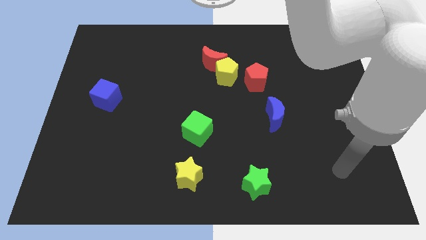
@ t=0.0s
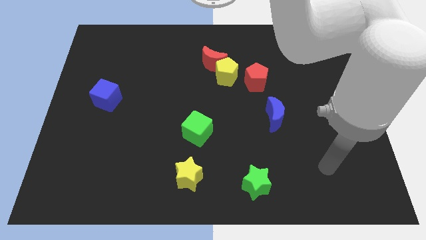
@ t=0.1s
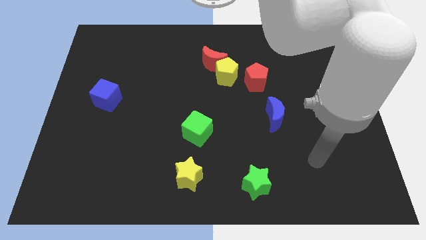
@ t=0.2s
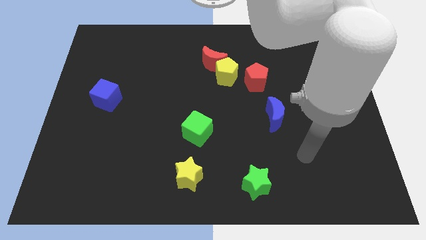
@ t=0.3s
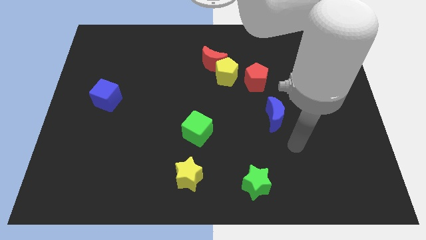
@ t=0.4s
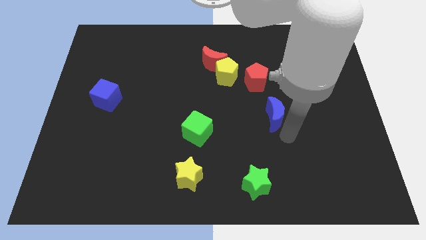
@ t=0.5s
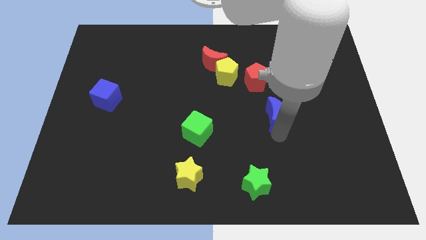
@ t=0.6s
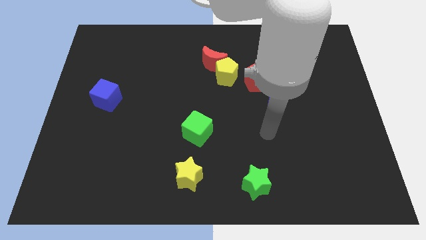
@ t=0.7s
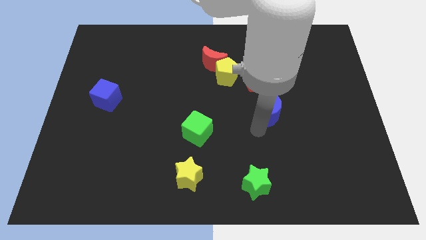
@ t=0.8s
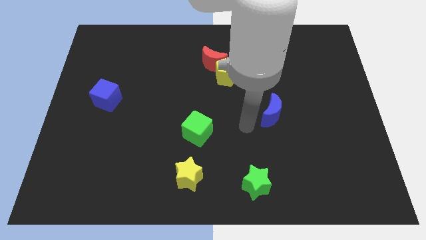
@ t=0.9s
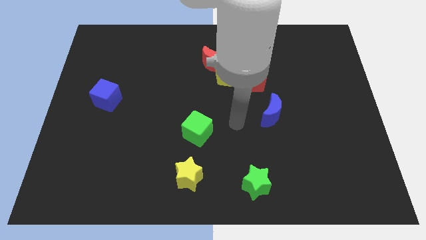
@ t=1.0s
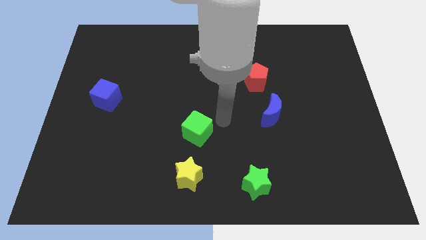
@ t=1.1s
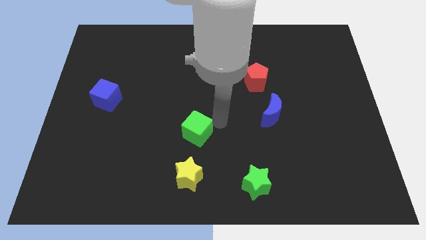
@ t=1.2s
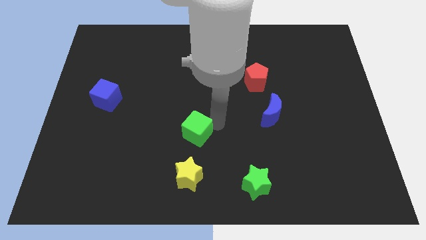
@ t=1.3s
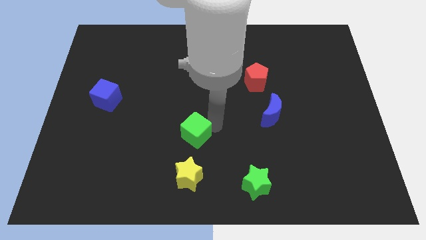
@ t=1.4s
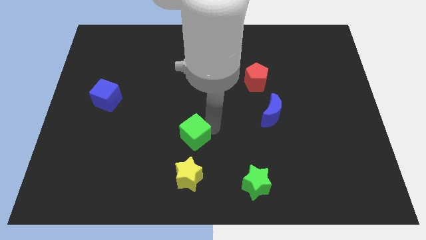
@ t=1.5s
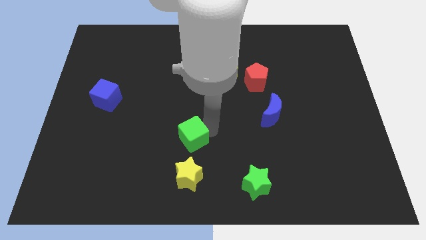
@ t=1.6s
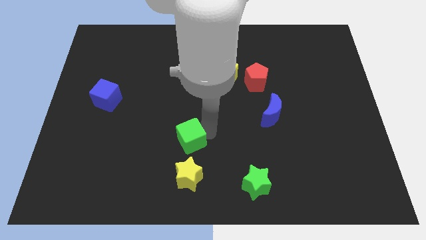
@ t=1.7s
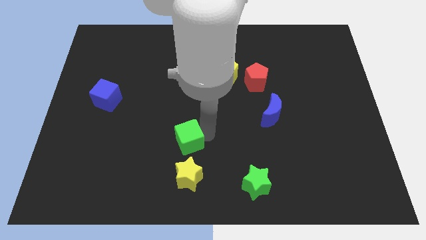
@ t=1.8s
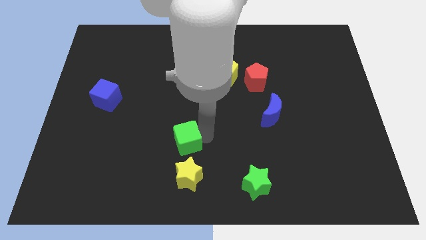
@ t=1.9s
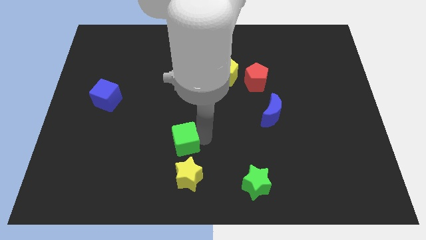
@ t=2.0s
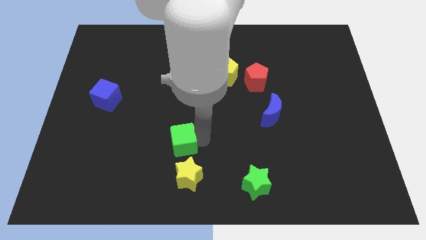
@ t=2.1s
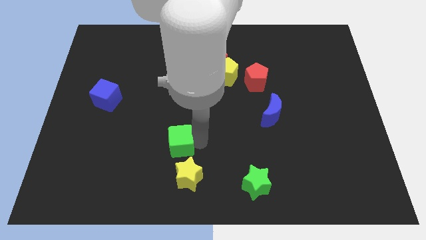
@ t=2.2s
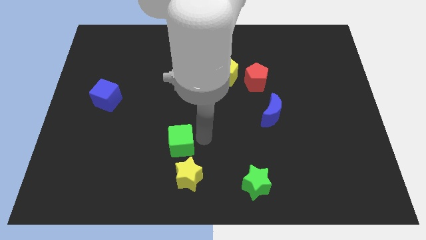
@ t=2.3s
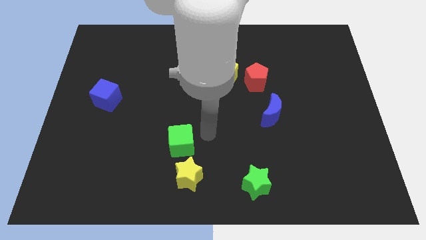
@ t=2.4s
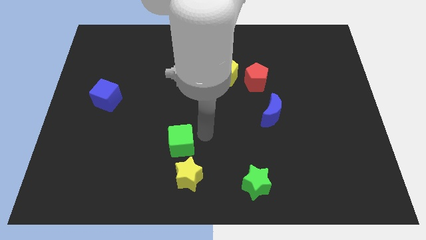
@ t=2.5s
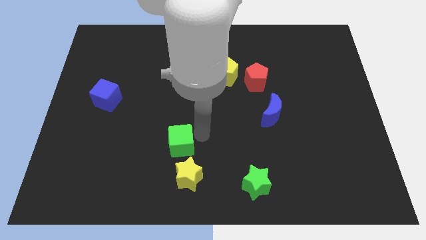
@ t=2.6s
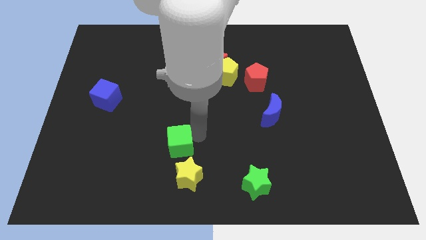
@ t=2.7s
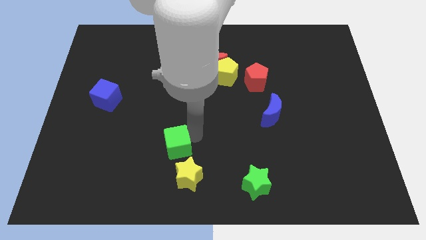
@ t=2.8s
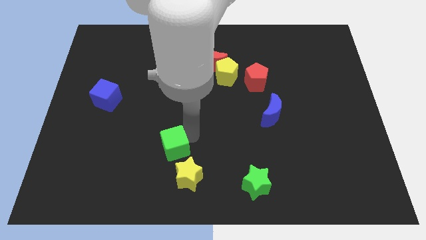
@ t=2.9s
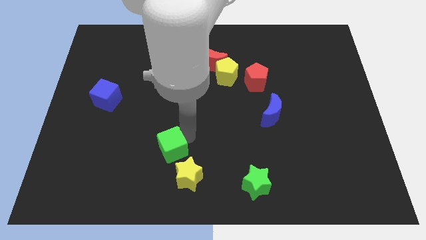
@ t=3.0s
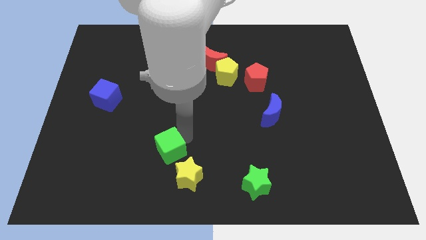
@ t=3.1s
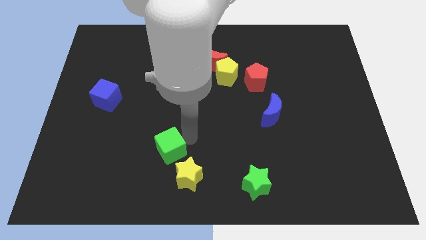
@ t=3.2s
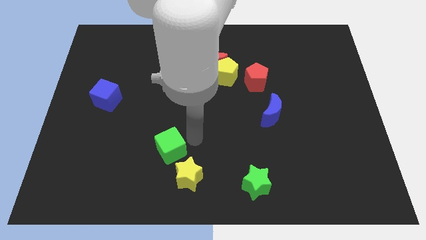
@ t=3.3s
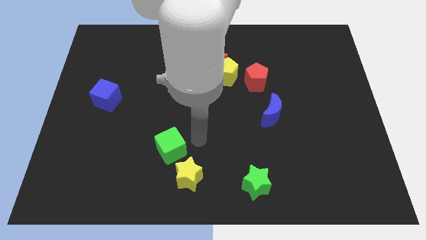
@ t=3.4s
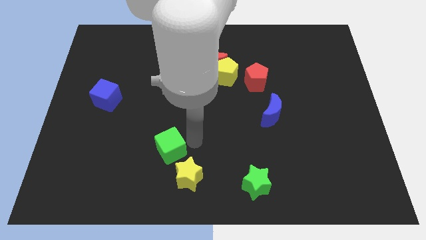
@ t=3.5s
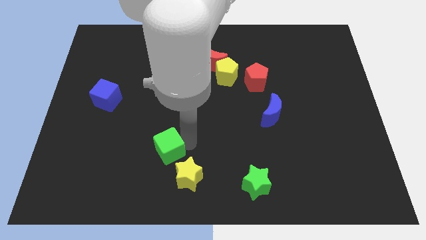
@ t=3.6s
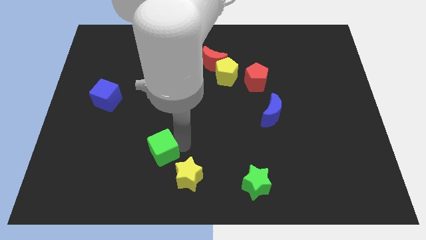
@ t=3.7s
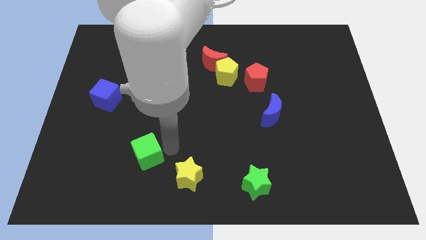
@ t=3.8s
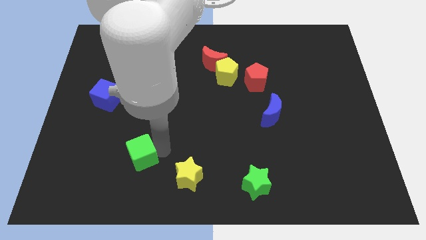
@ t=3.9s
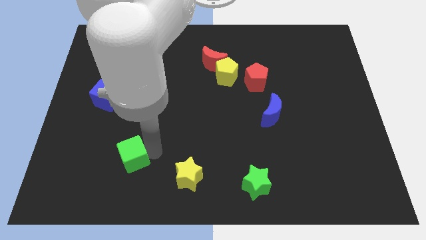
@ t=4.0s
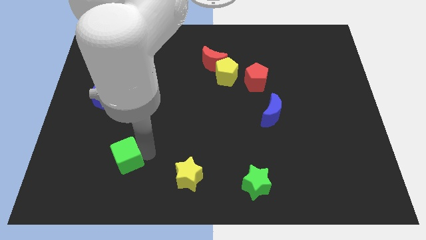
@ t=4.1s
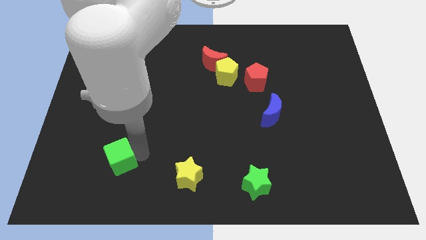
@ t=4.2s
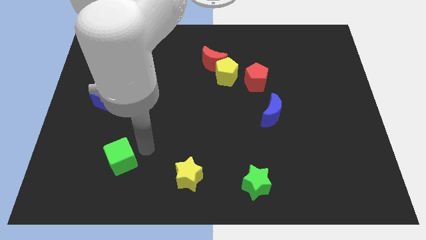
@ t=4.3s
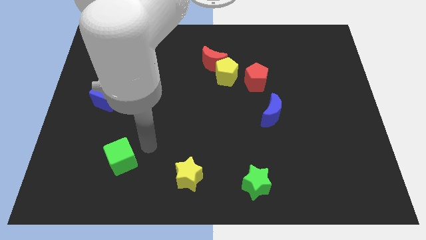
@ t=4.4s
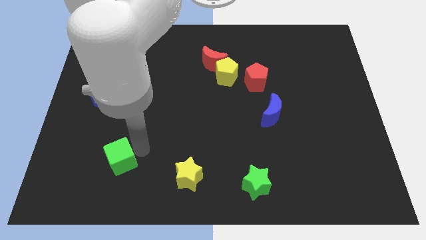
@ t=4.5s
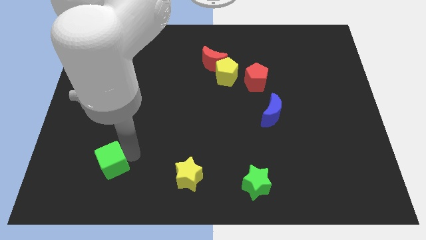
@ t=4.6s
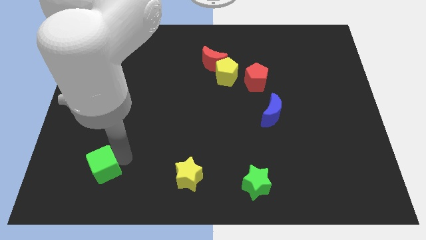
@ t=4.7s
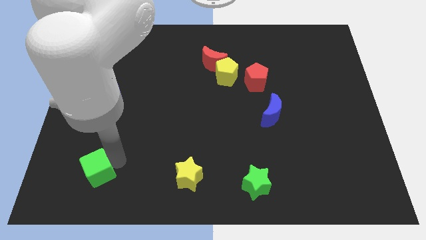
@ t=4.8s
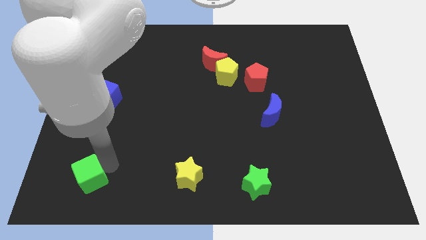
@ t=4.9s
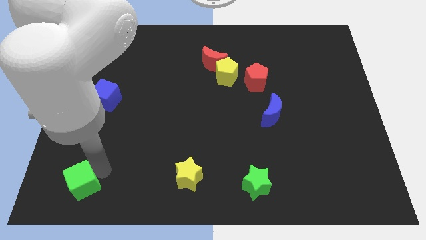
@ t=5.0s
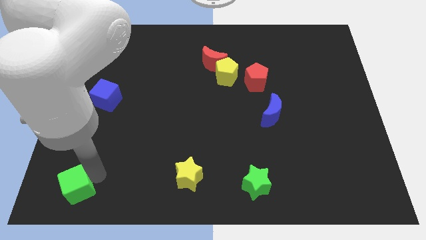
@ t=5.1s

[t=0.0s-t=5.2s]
put the green cube to the bottom left of the board

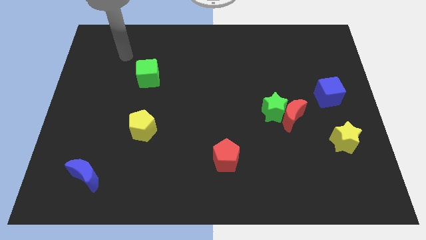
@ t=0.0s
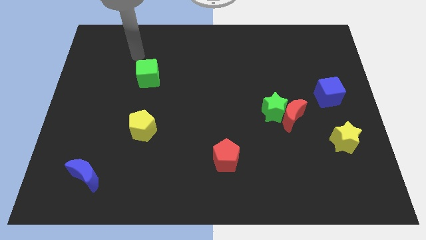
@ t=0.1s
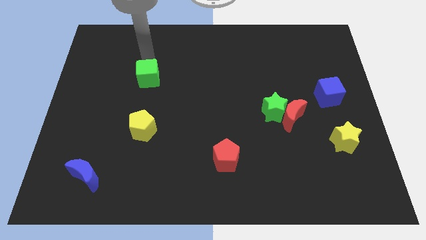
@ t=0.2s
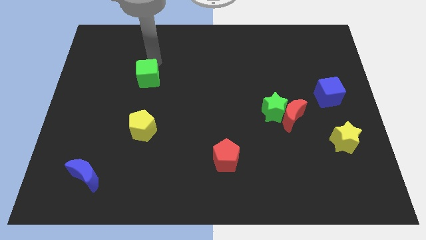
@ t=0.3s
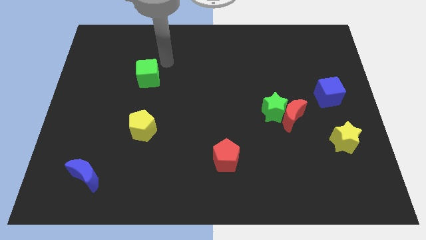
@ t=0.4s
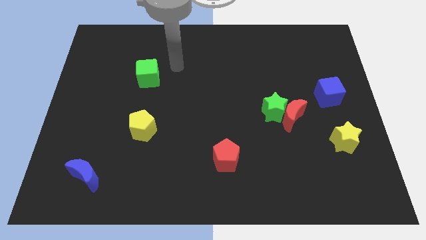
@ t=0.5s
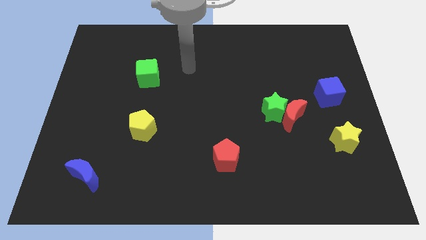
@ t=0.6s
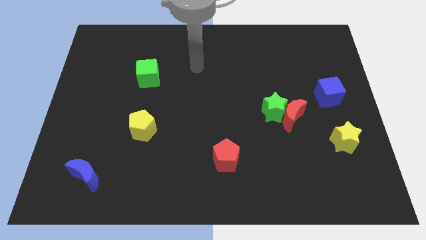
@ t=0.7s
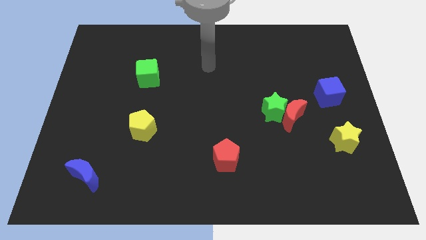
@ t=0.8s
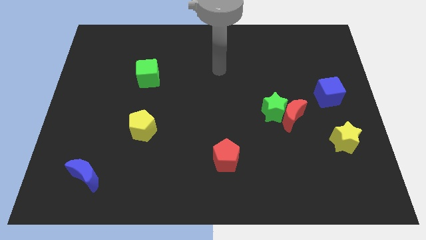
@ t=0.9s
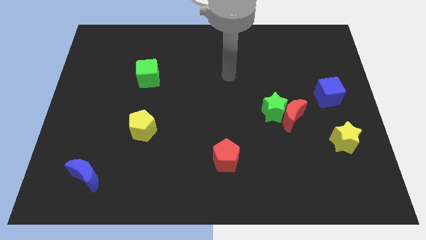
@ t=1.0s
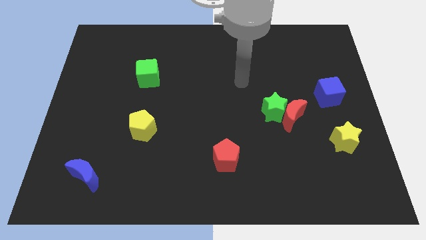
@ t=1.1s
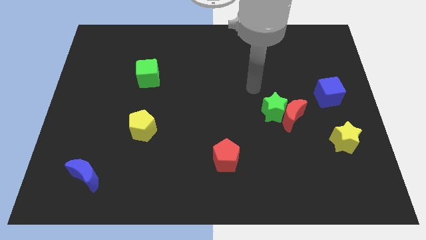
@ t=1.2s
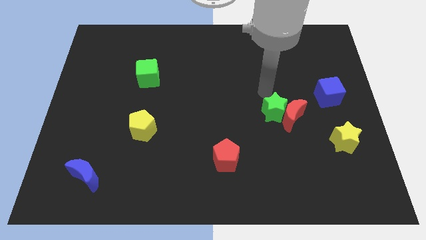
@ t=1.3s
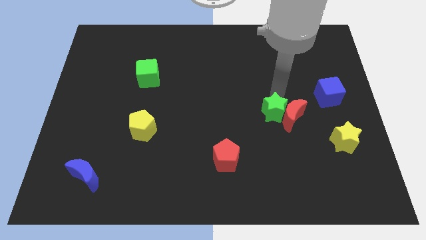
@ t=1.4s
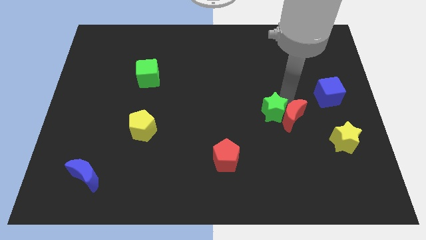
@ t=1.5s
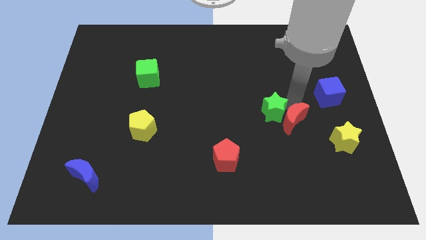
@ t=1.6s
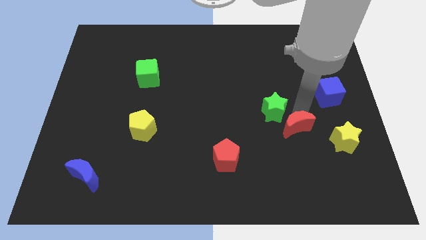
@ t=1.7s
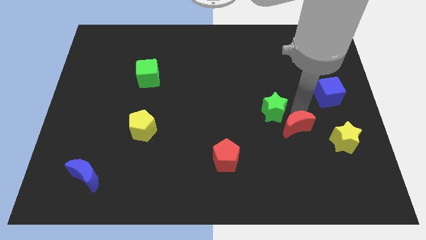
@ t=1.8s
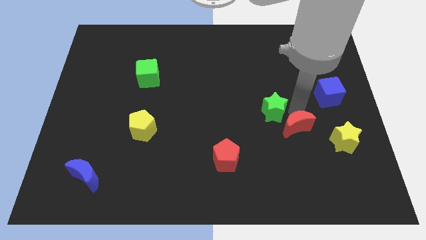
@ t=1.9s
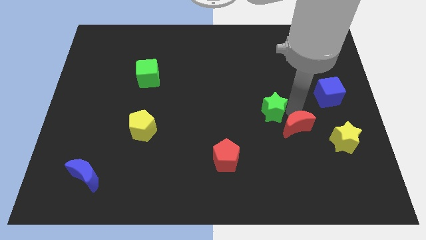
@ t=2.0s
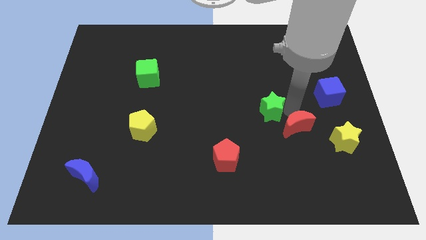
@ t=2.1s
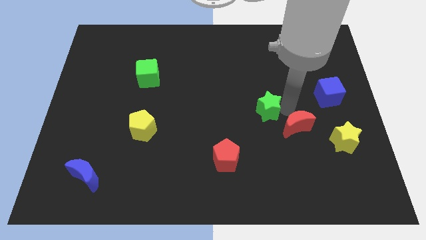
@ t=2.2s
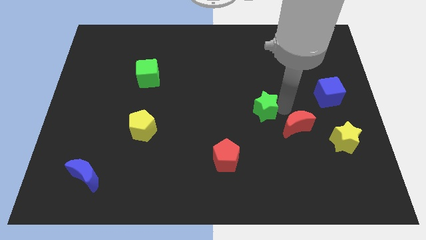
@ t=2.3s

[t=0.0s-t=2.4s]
move the green star to the center

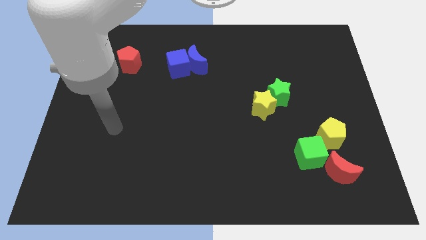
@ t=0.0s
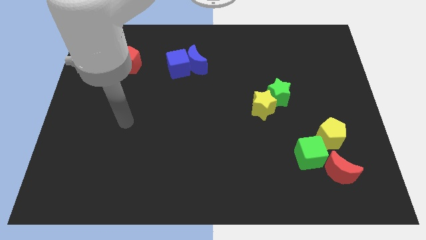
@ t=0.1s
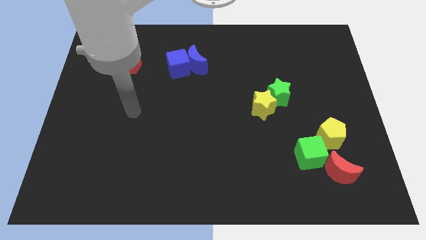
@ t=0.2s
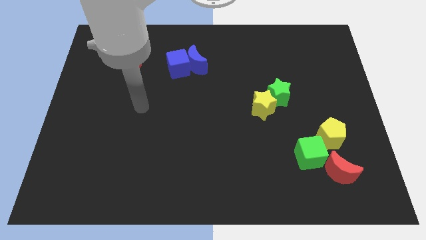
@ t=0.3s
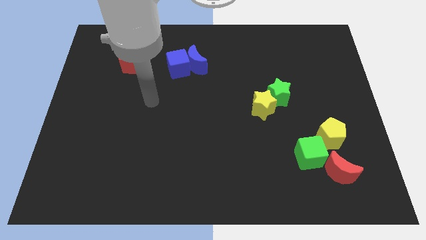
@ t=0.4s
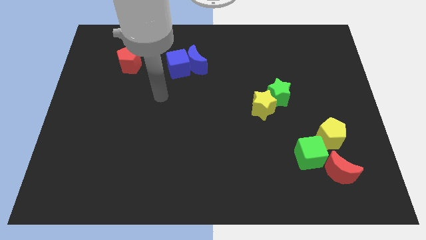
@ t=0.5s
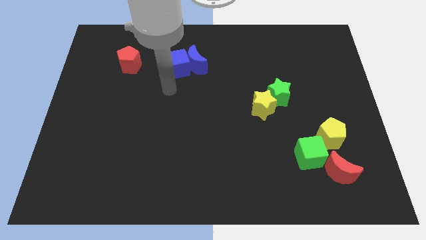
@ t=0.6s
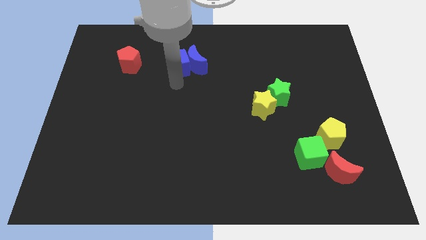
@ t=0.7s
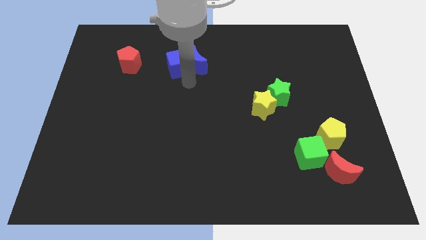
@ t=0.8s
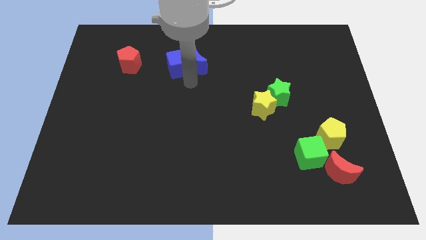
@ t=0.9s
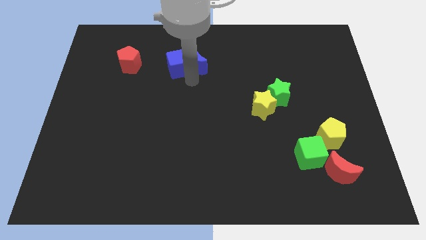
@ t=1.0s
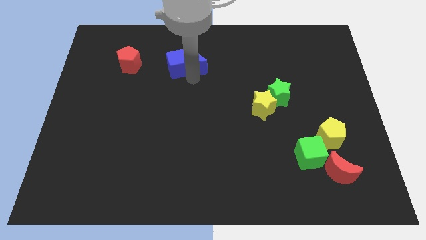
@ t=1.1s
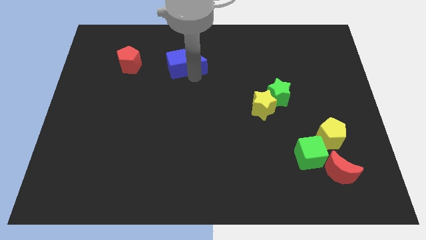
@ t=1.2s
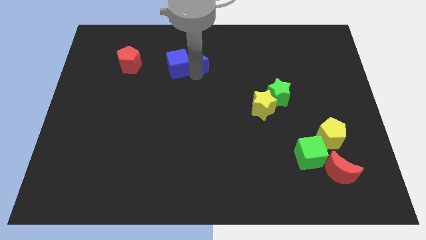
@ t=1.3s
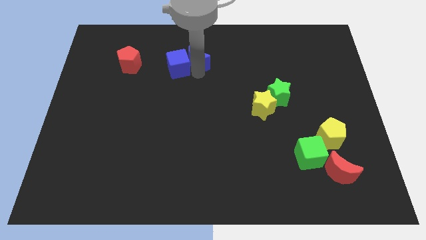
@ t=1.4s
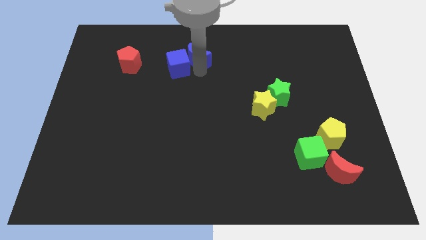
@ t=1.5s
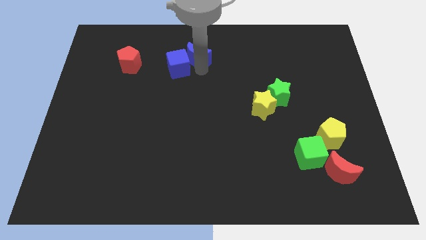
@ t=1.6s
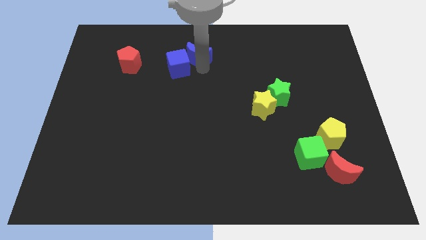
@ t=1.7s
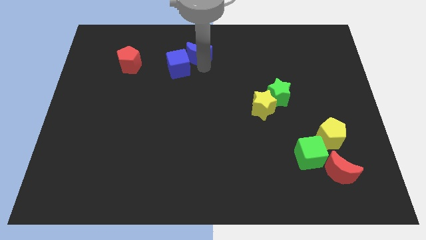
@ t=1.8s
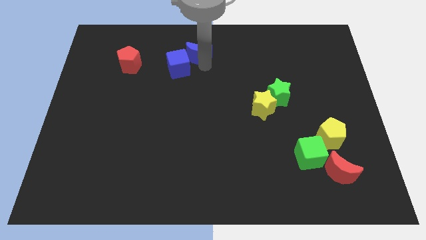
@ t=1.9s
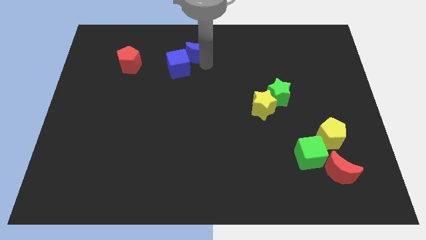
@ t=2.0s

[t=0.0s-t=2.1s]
move the blue moon to the top
